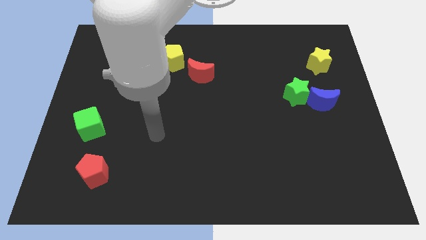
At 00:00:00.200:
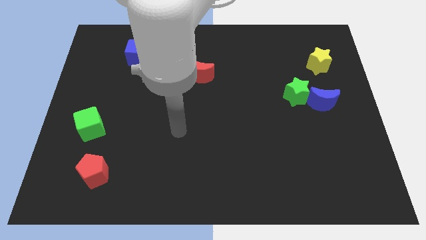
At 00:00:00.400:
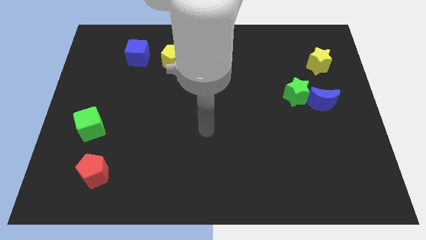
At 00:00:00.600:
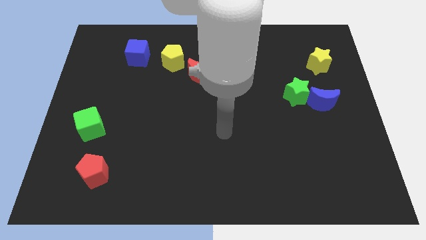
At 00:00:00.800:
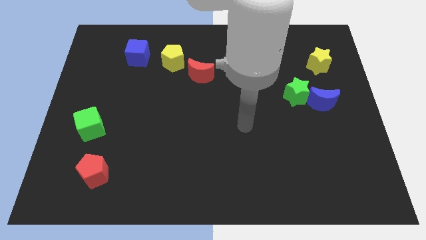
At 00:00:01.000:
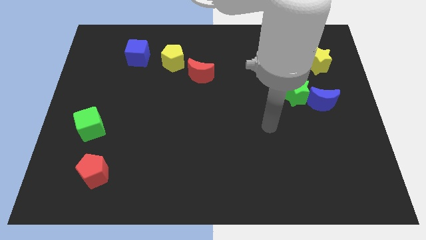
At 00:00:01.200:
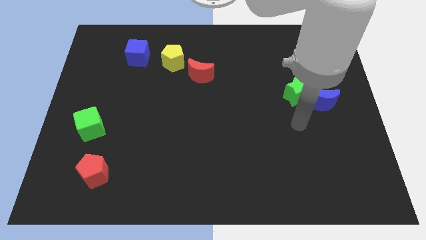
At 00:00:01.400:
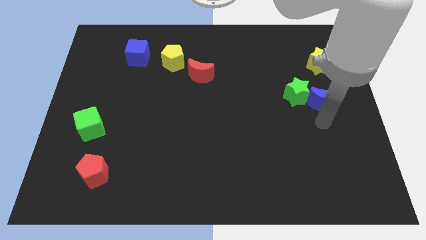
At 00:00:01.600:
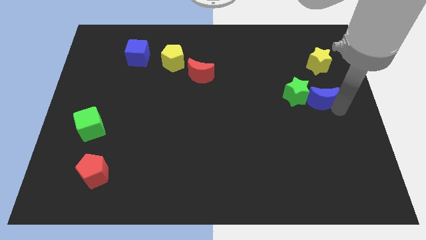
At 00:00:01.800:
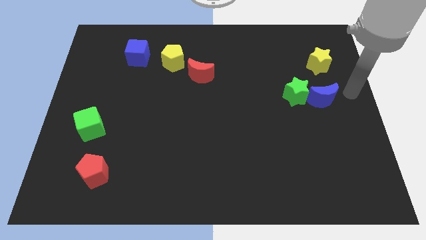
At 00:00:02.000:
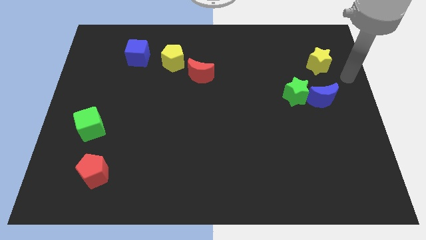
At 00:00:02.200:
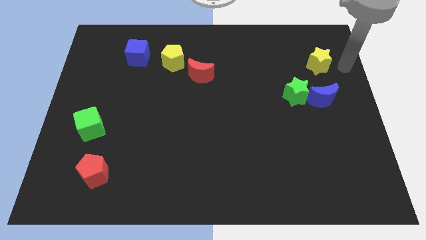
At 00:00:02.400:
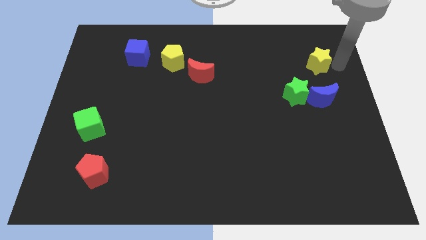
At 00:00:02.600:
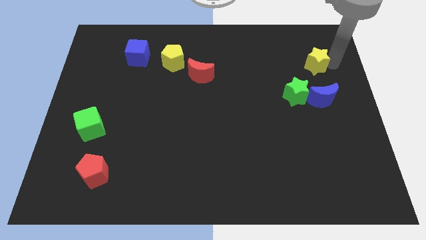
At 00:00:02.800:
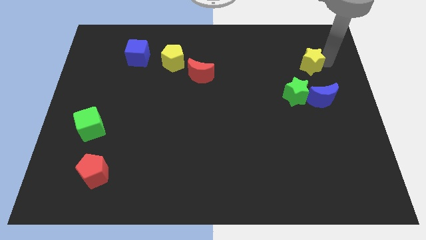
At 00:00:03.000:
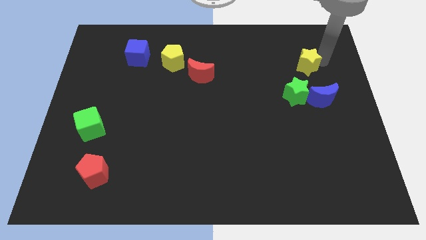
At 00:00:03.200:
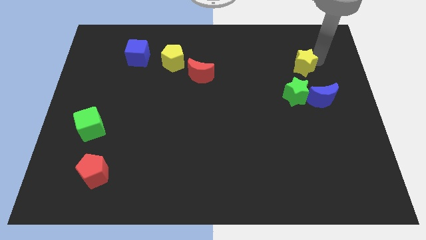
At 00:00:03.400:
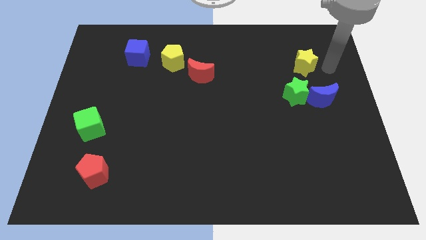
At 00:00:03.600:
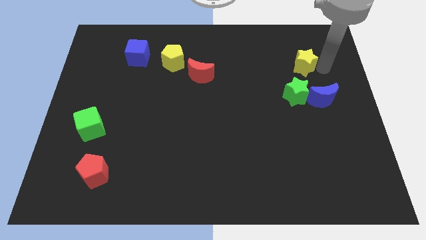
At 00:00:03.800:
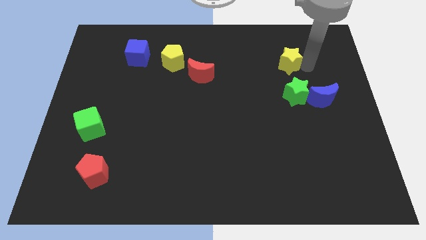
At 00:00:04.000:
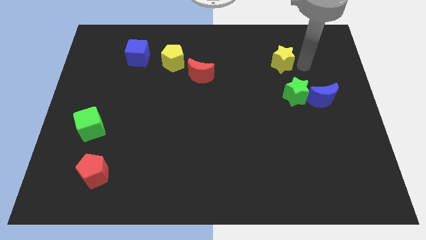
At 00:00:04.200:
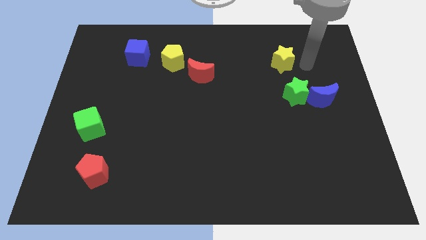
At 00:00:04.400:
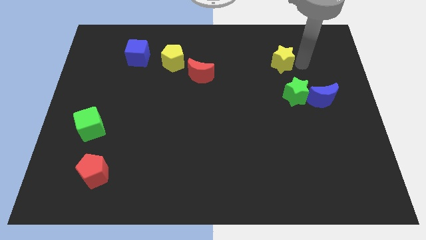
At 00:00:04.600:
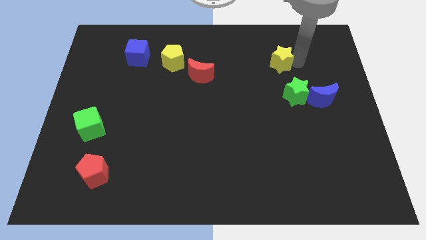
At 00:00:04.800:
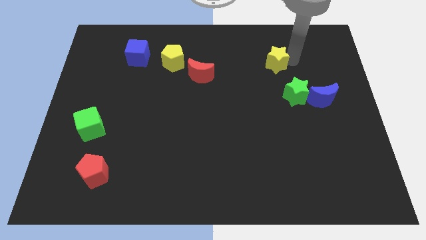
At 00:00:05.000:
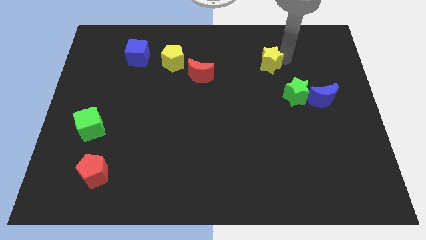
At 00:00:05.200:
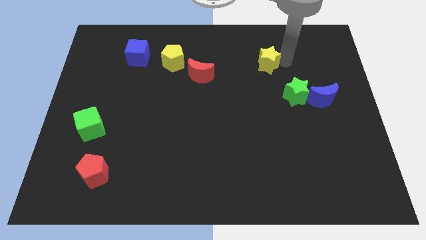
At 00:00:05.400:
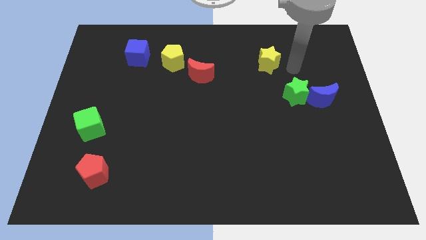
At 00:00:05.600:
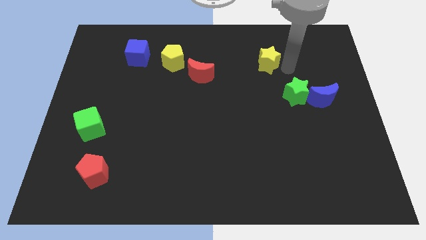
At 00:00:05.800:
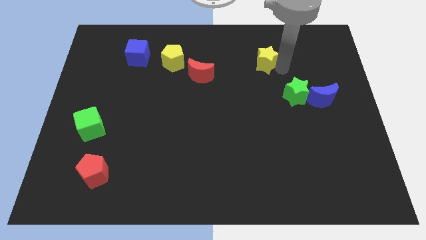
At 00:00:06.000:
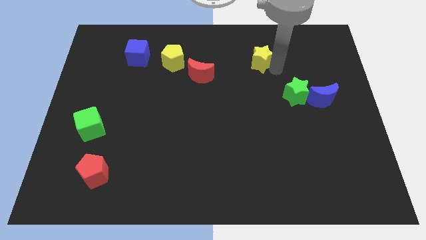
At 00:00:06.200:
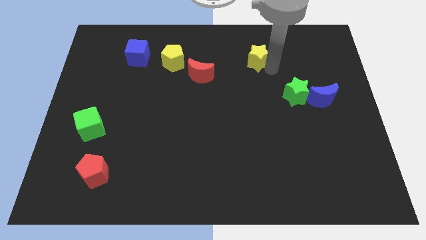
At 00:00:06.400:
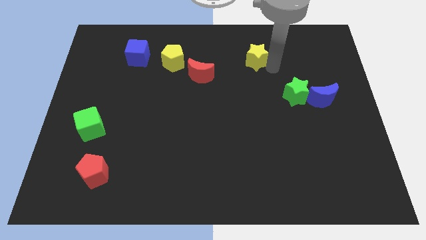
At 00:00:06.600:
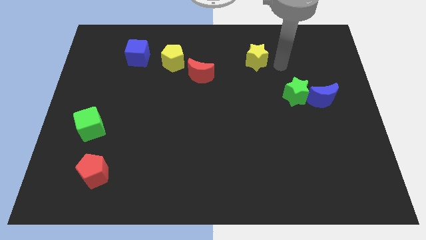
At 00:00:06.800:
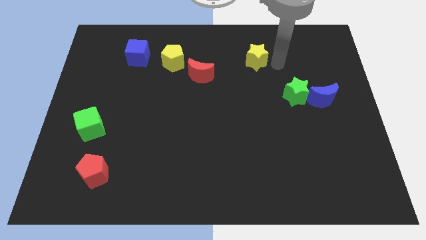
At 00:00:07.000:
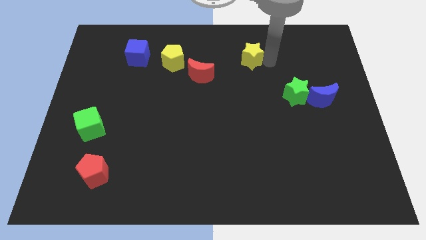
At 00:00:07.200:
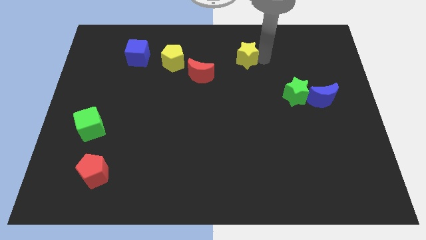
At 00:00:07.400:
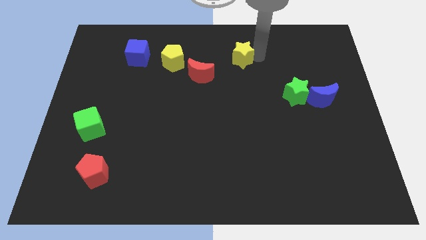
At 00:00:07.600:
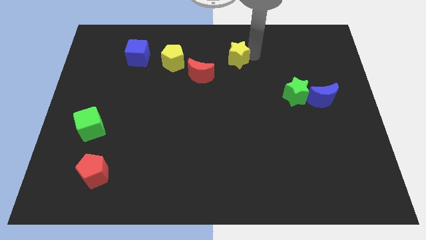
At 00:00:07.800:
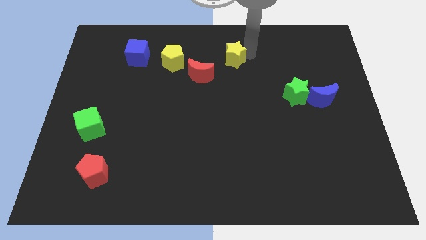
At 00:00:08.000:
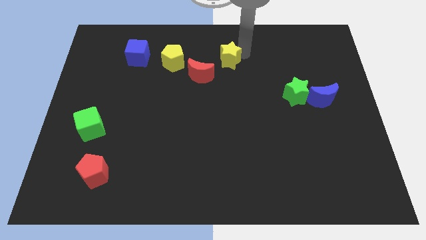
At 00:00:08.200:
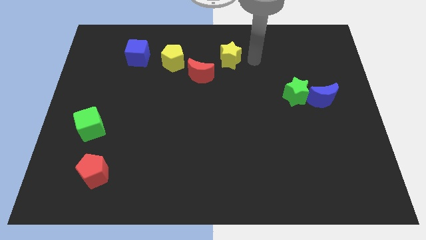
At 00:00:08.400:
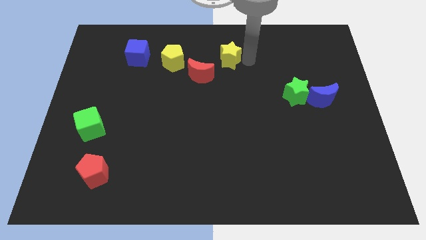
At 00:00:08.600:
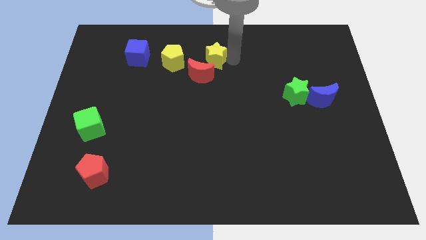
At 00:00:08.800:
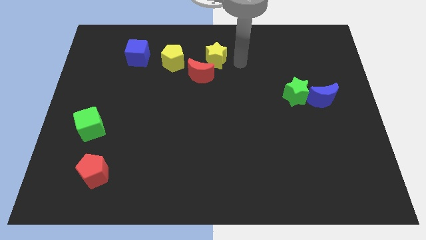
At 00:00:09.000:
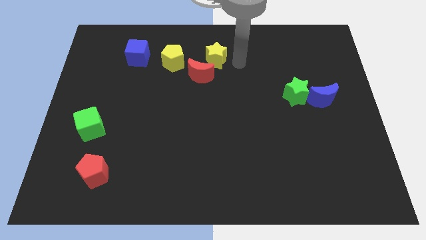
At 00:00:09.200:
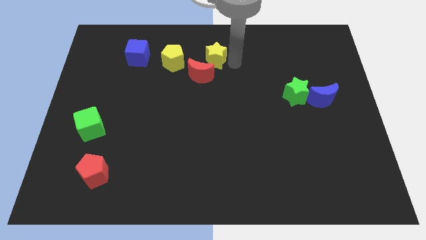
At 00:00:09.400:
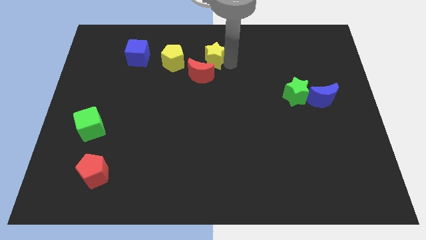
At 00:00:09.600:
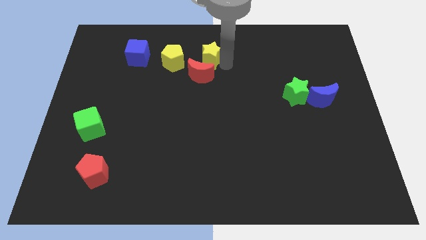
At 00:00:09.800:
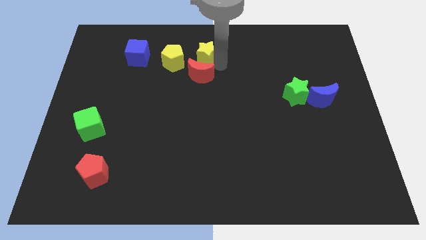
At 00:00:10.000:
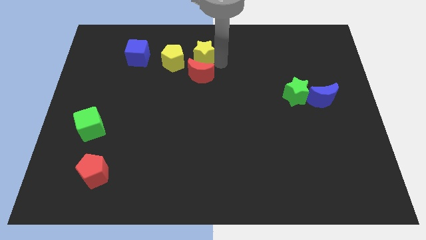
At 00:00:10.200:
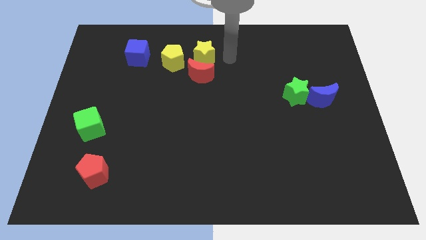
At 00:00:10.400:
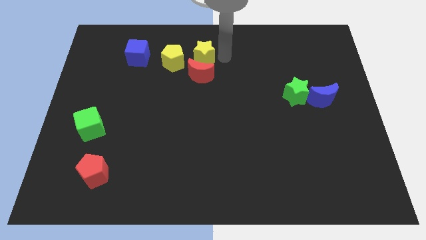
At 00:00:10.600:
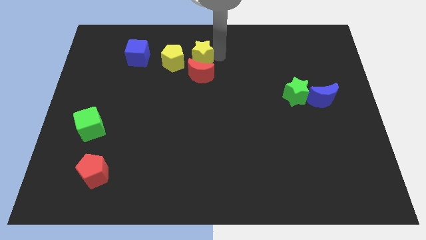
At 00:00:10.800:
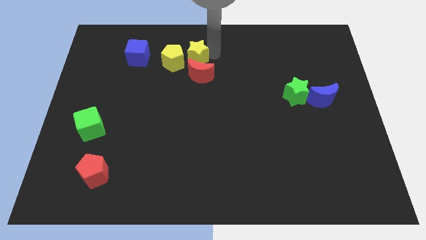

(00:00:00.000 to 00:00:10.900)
push the yellow star to the right side of the blue cube

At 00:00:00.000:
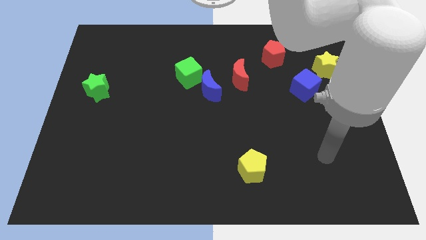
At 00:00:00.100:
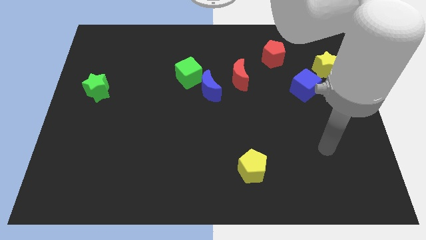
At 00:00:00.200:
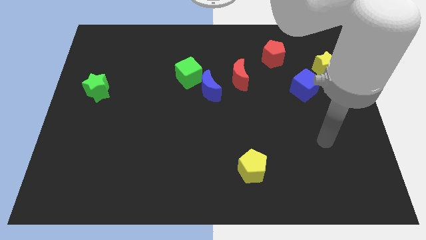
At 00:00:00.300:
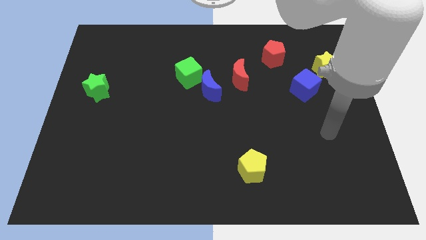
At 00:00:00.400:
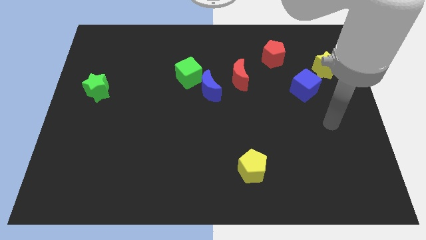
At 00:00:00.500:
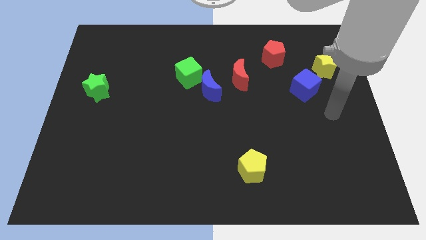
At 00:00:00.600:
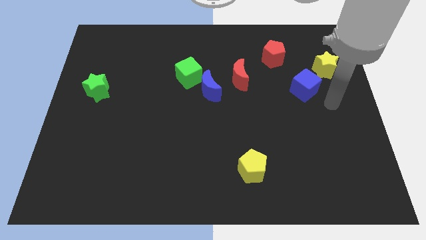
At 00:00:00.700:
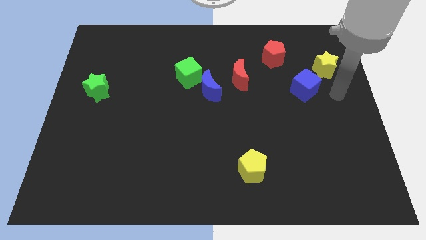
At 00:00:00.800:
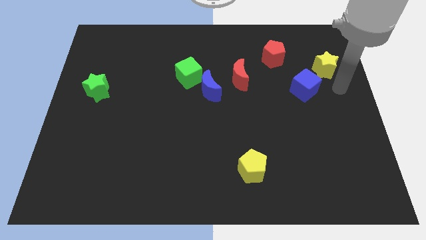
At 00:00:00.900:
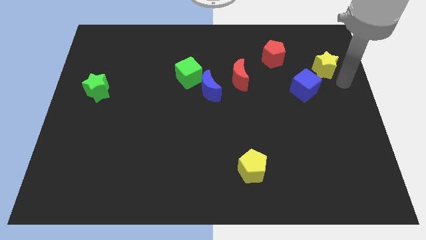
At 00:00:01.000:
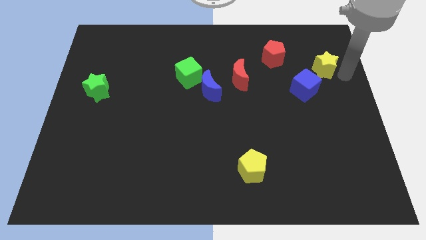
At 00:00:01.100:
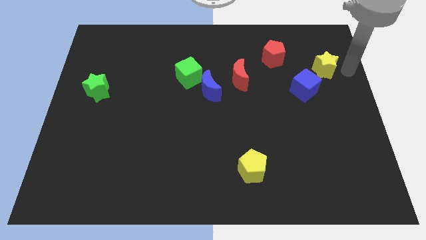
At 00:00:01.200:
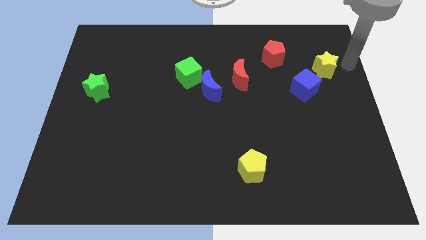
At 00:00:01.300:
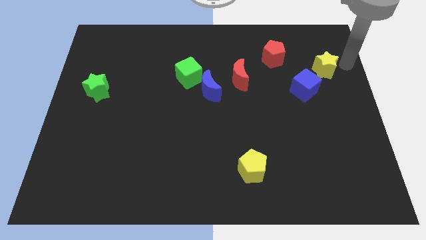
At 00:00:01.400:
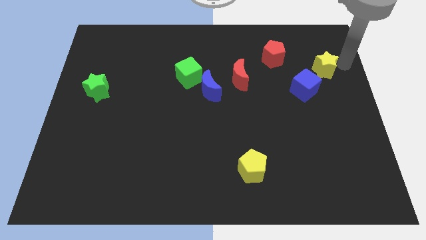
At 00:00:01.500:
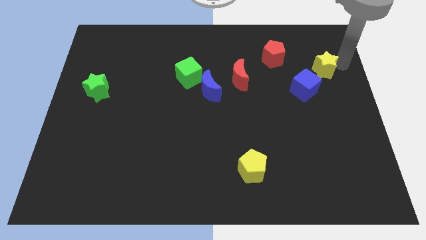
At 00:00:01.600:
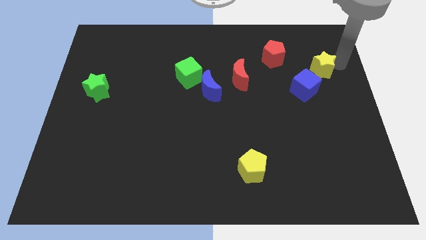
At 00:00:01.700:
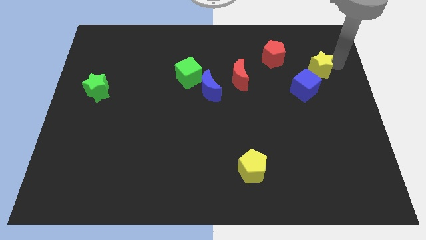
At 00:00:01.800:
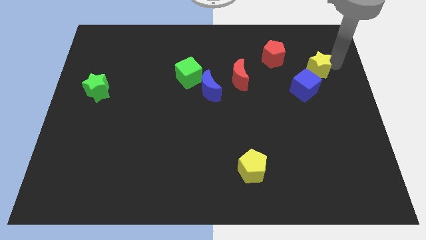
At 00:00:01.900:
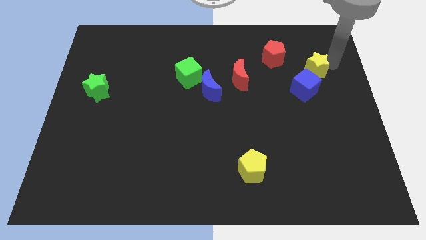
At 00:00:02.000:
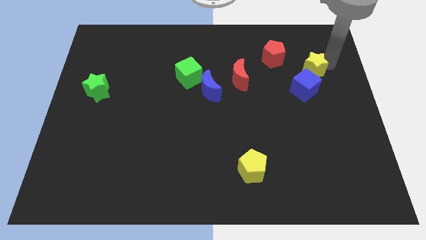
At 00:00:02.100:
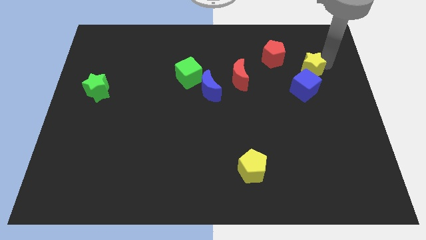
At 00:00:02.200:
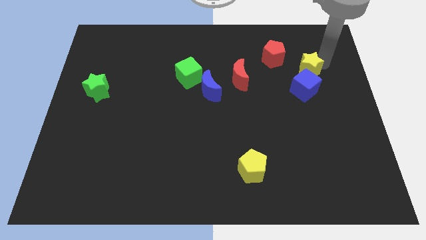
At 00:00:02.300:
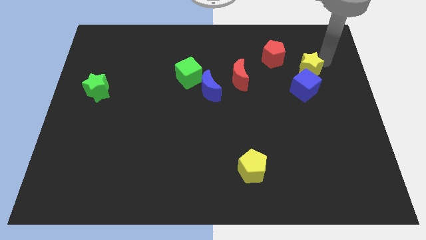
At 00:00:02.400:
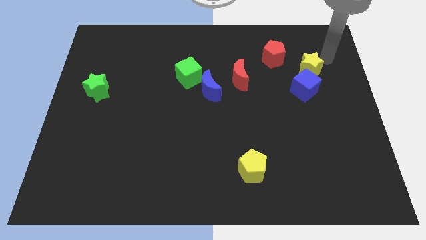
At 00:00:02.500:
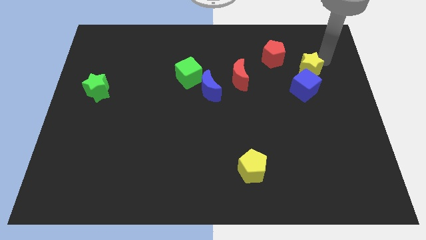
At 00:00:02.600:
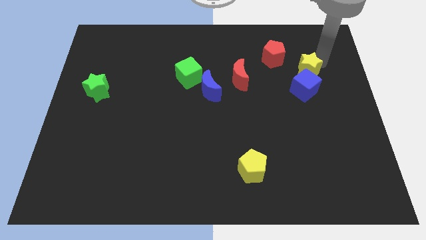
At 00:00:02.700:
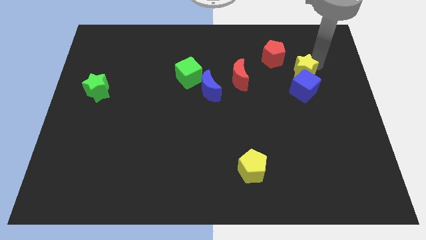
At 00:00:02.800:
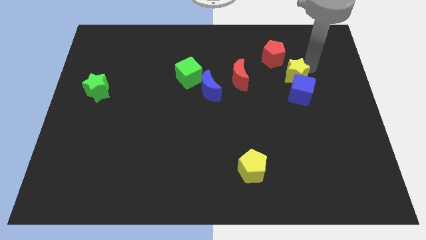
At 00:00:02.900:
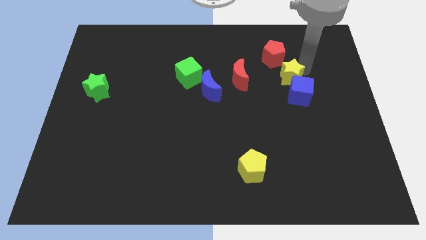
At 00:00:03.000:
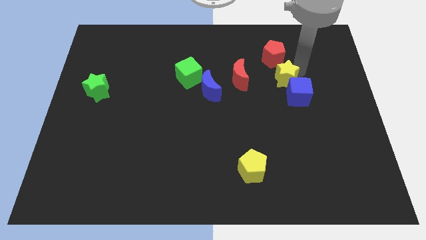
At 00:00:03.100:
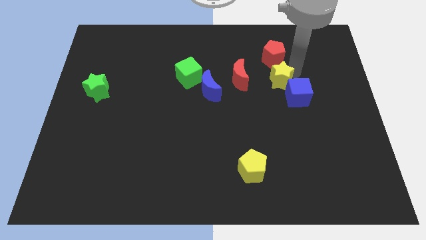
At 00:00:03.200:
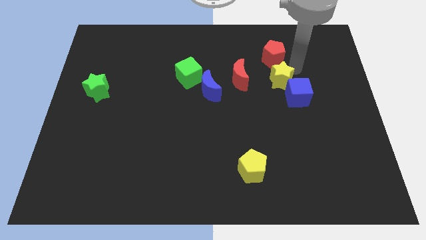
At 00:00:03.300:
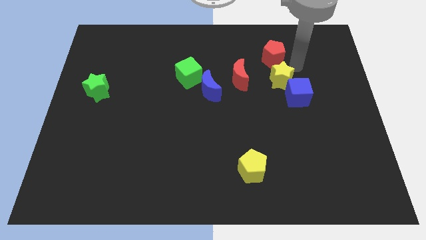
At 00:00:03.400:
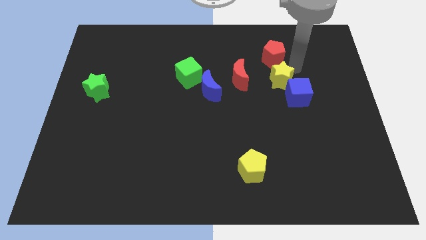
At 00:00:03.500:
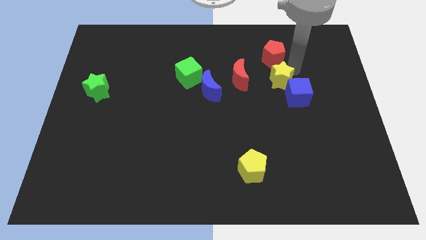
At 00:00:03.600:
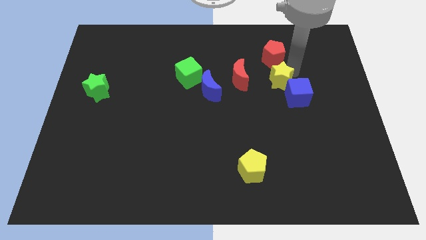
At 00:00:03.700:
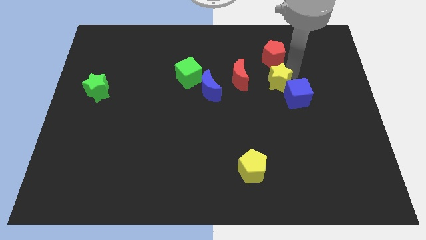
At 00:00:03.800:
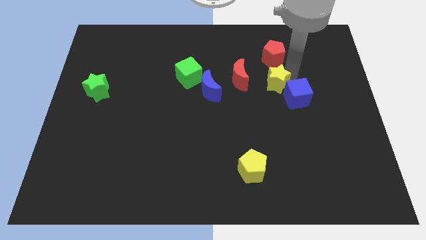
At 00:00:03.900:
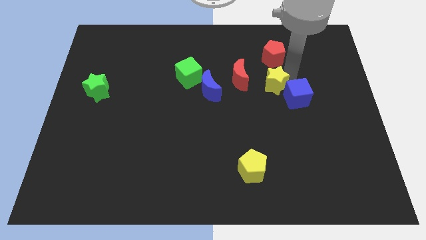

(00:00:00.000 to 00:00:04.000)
put the yellow star to the bottom right side of the red moon
